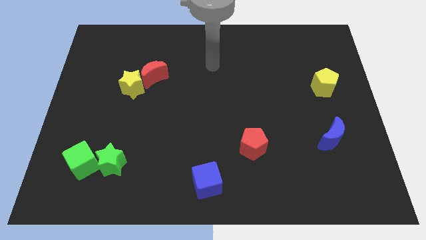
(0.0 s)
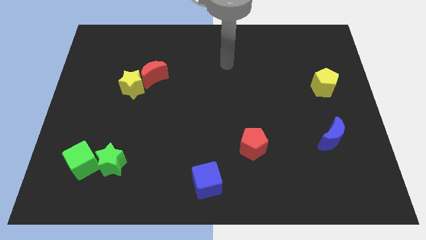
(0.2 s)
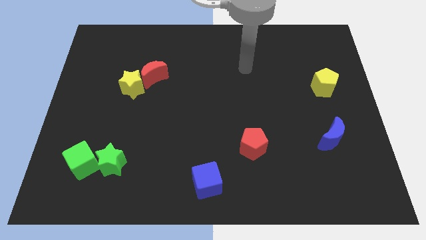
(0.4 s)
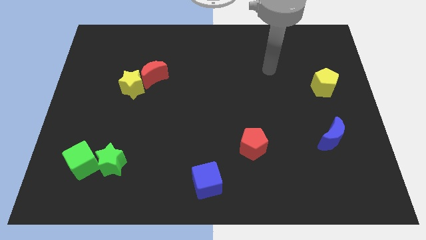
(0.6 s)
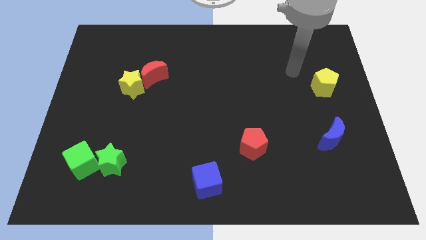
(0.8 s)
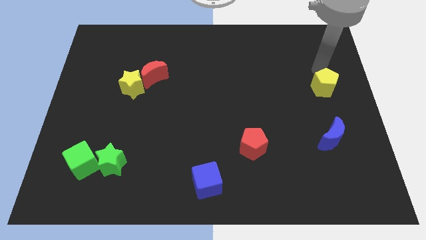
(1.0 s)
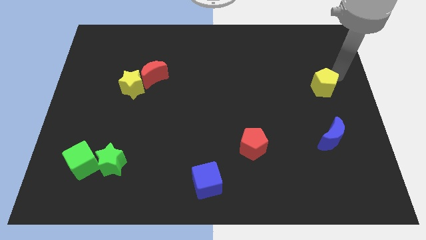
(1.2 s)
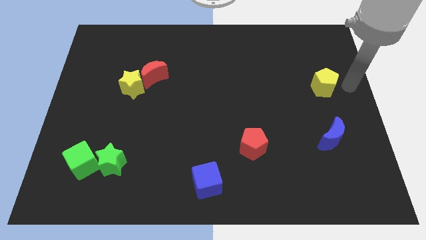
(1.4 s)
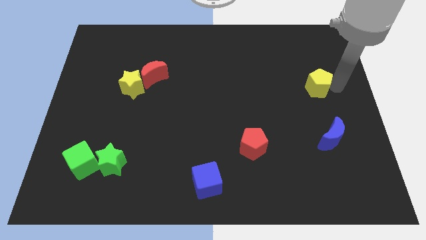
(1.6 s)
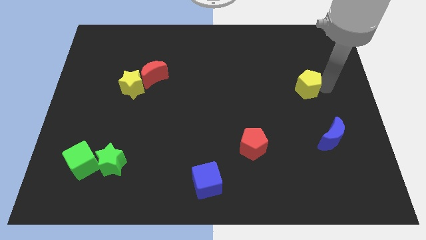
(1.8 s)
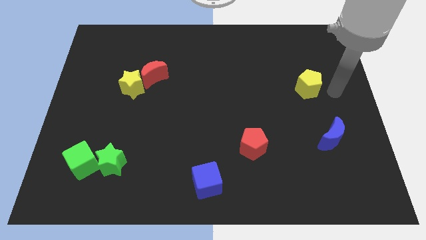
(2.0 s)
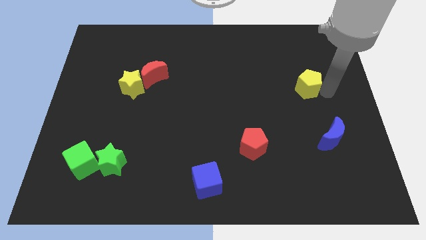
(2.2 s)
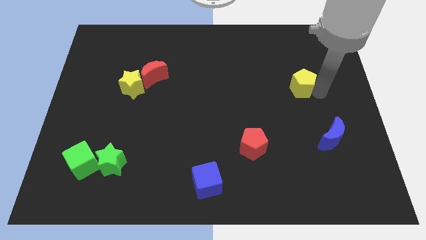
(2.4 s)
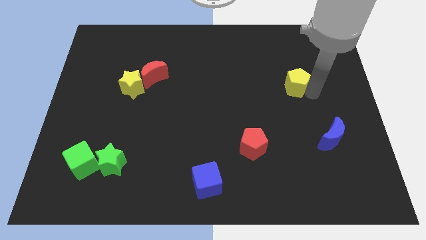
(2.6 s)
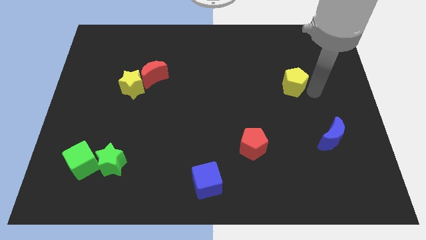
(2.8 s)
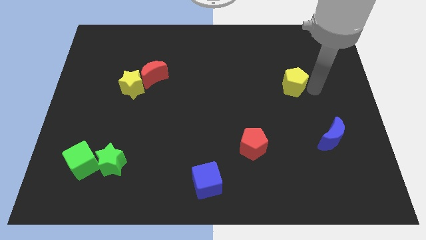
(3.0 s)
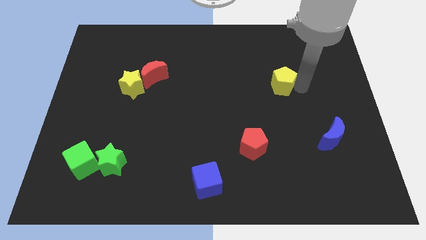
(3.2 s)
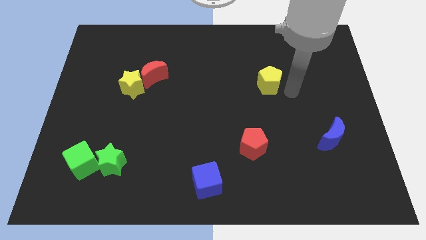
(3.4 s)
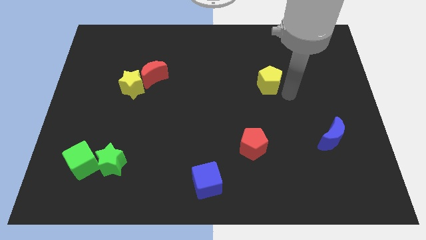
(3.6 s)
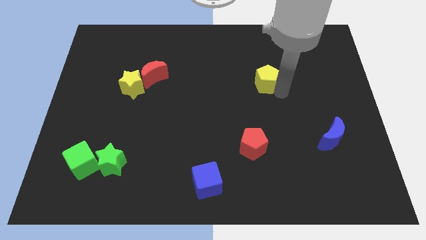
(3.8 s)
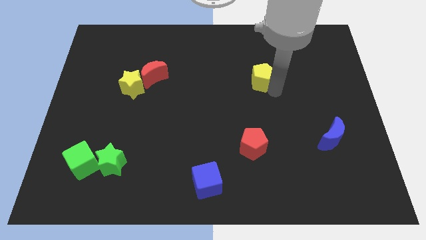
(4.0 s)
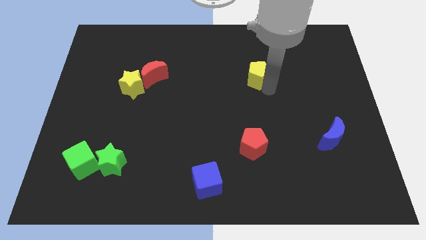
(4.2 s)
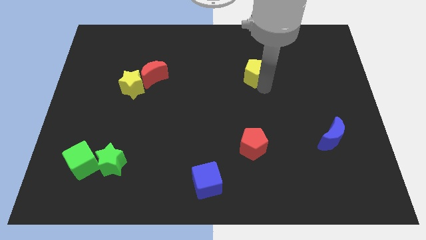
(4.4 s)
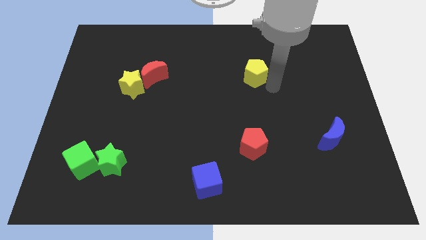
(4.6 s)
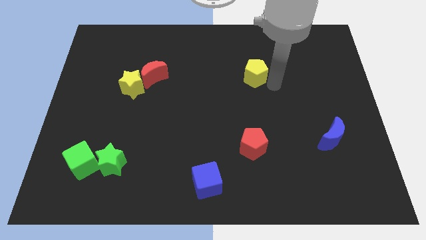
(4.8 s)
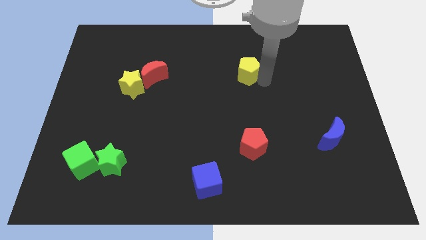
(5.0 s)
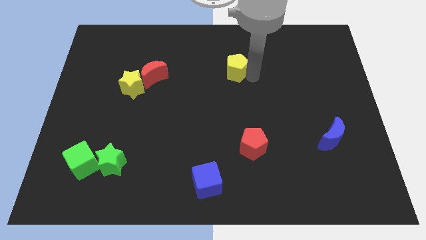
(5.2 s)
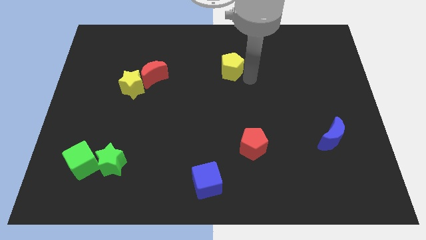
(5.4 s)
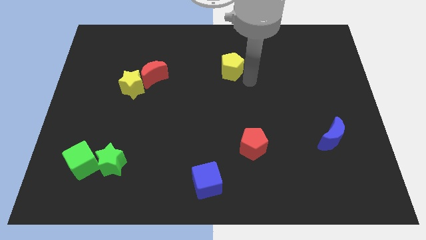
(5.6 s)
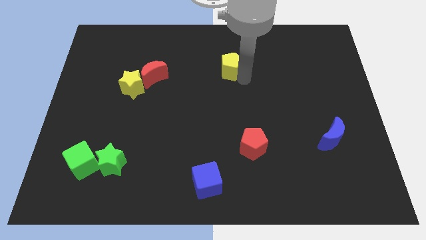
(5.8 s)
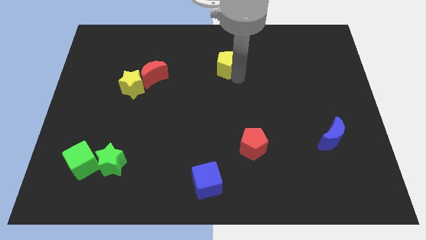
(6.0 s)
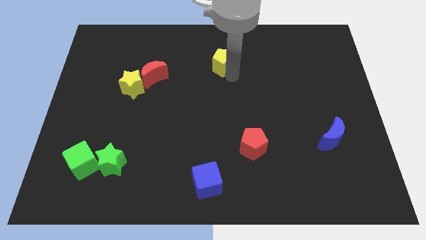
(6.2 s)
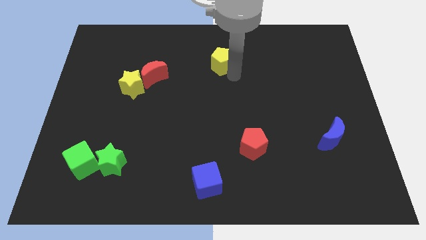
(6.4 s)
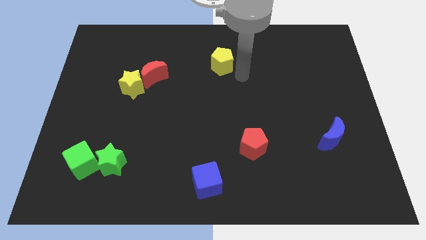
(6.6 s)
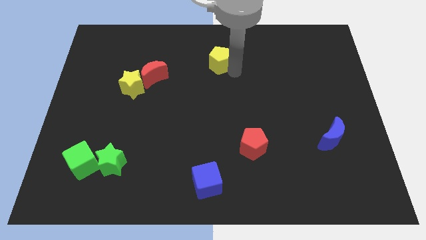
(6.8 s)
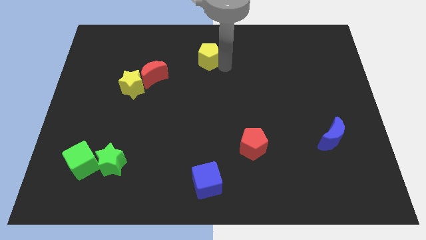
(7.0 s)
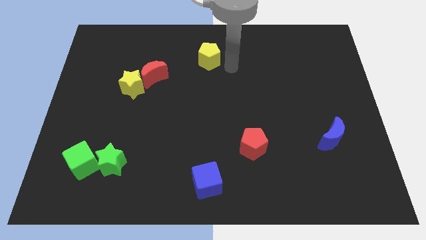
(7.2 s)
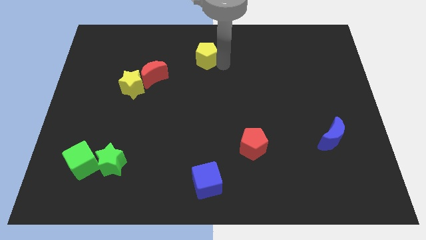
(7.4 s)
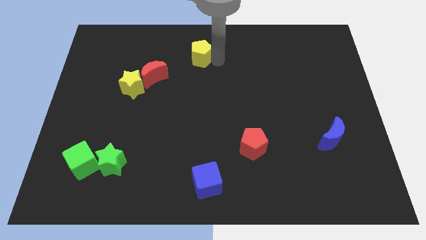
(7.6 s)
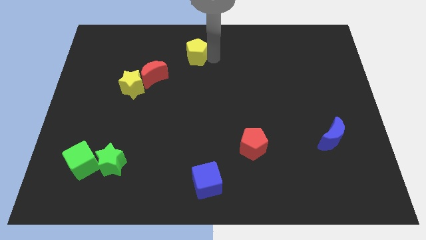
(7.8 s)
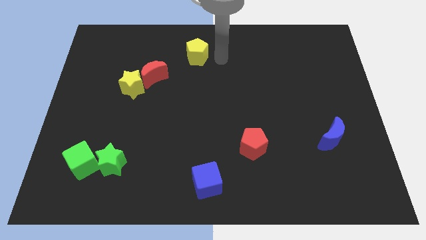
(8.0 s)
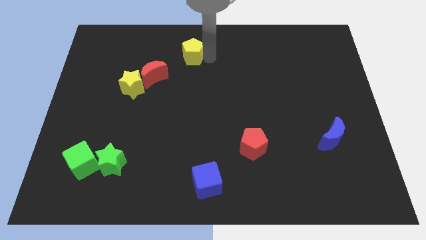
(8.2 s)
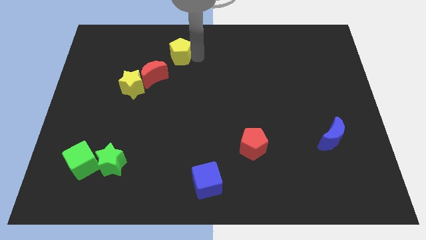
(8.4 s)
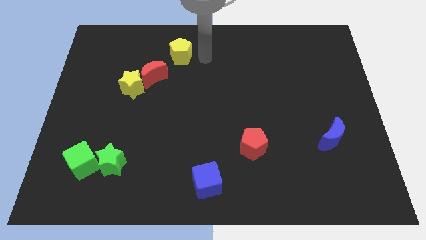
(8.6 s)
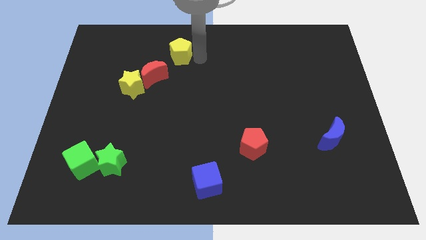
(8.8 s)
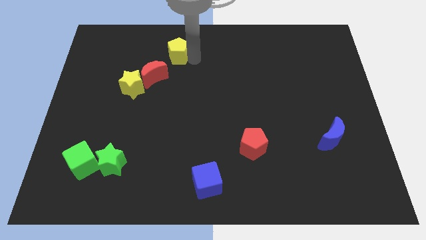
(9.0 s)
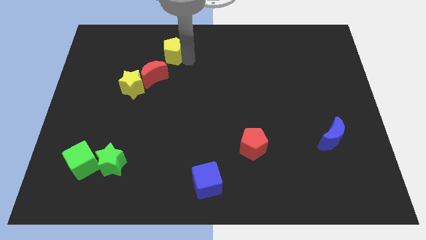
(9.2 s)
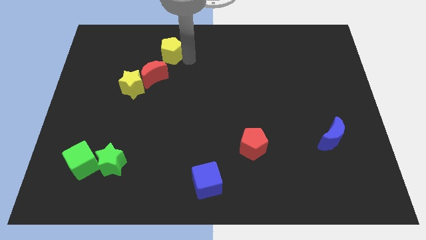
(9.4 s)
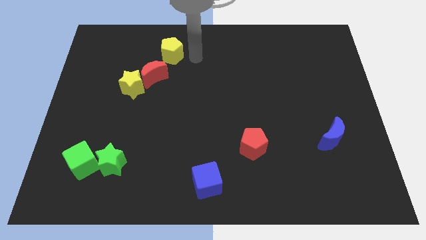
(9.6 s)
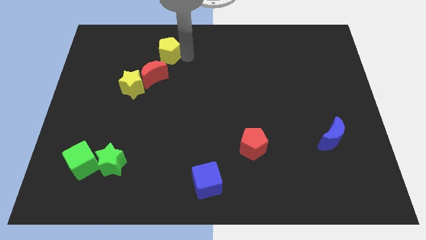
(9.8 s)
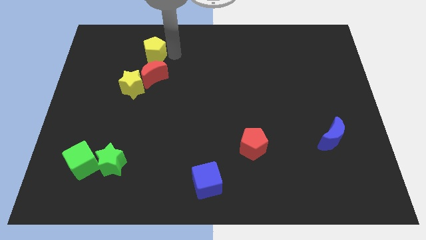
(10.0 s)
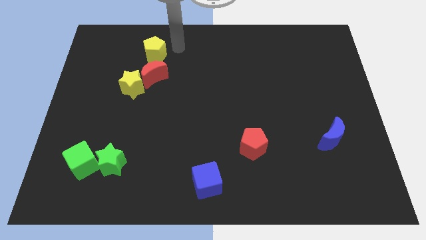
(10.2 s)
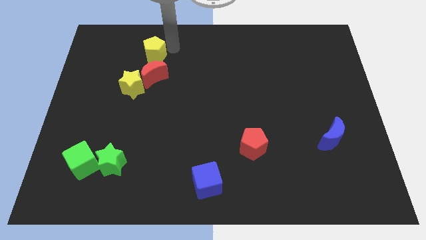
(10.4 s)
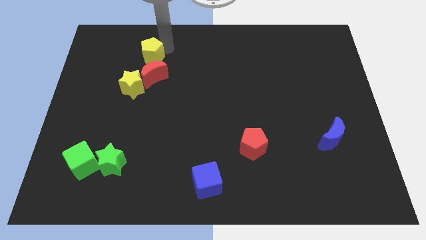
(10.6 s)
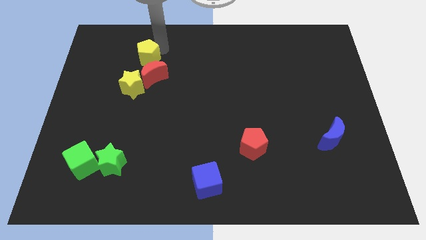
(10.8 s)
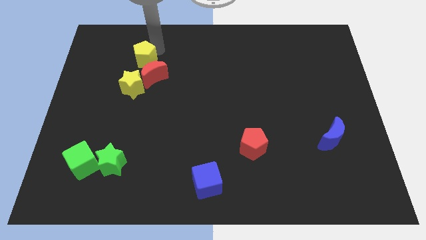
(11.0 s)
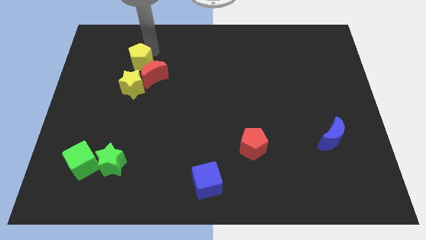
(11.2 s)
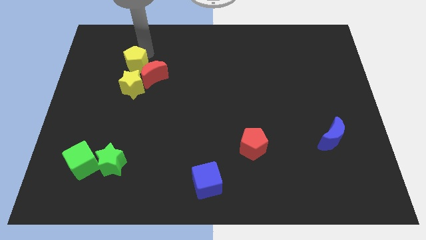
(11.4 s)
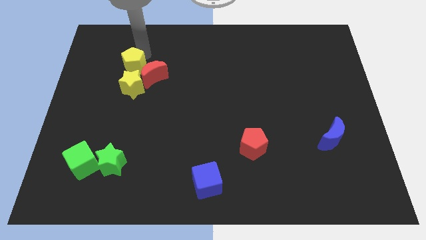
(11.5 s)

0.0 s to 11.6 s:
slide the yellow pentagon to the top left of the yellow star

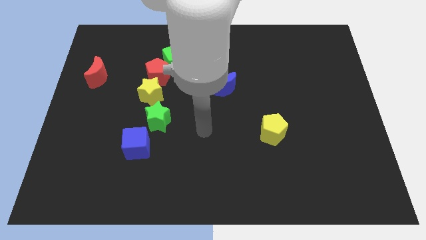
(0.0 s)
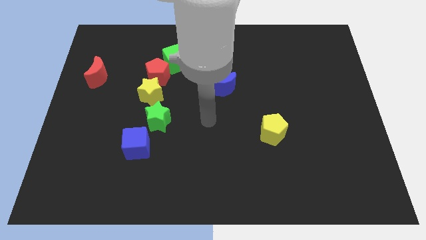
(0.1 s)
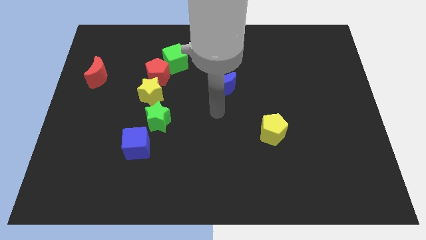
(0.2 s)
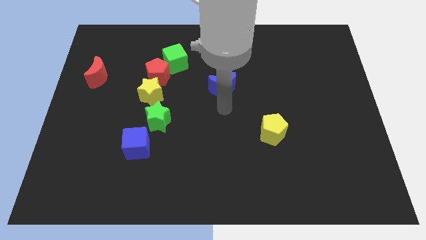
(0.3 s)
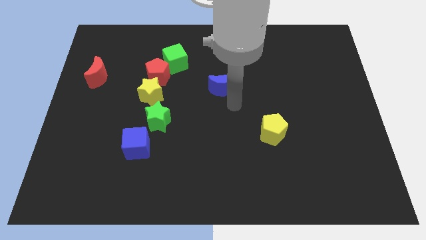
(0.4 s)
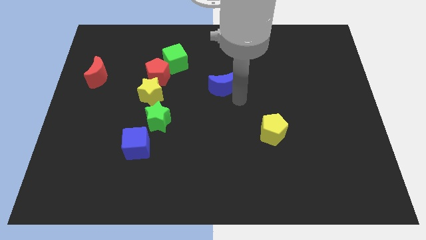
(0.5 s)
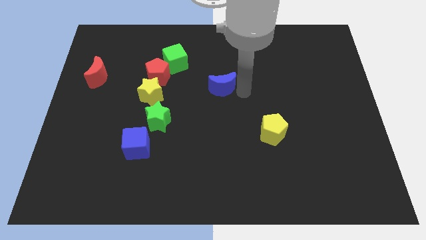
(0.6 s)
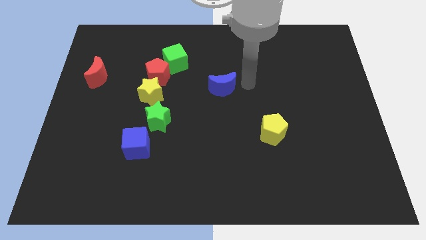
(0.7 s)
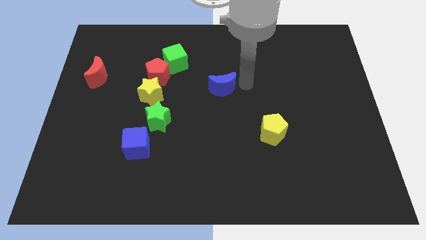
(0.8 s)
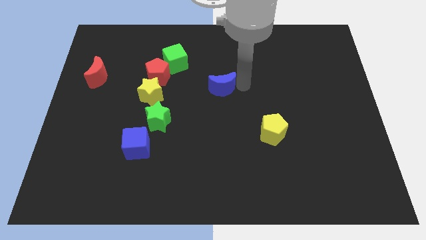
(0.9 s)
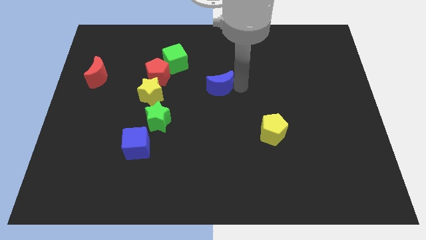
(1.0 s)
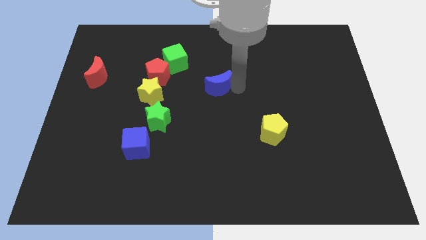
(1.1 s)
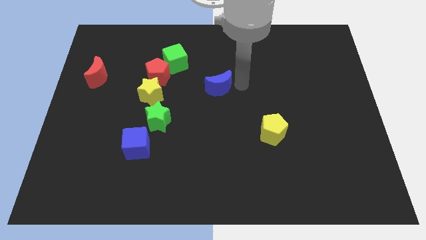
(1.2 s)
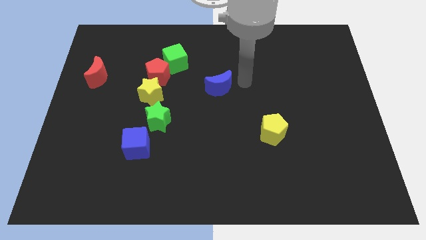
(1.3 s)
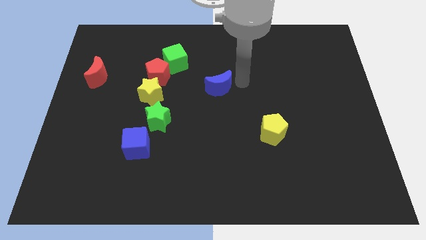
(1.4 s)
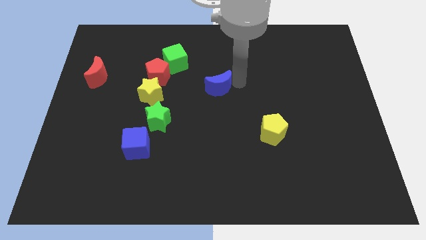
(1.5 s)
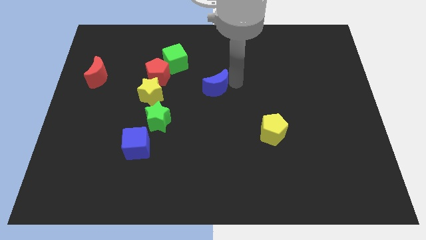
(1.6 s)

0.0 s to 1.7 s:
move the blue moon to the right side of the yellow star
